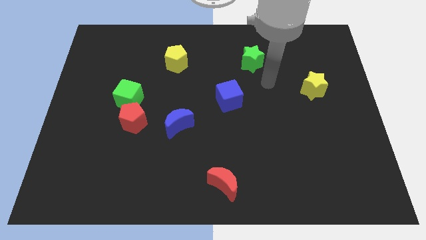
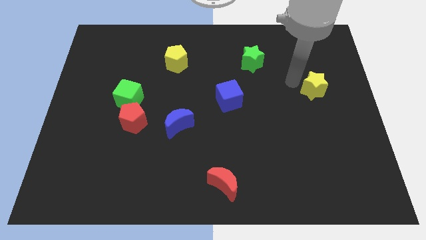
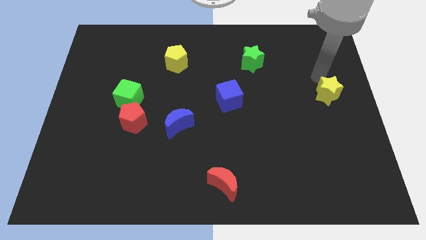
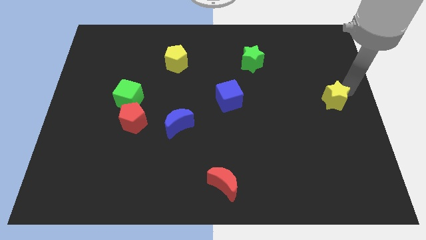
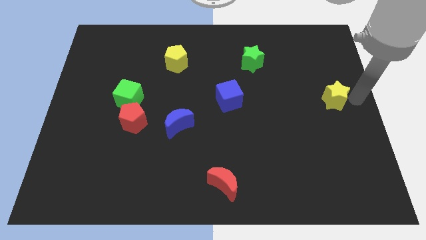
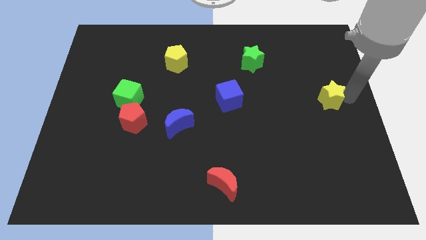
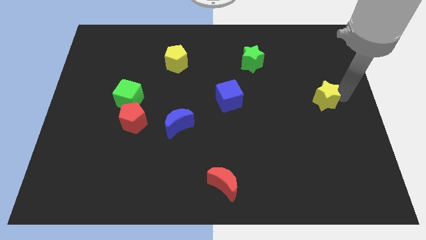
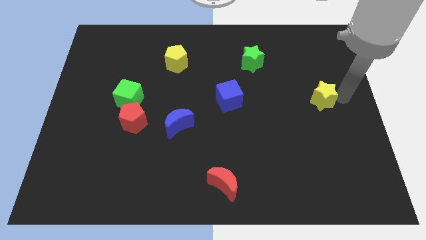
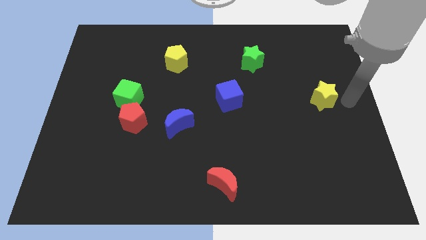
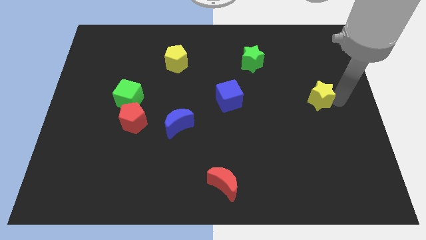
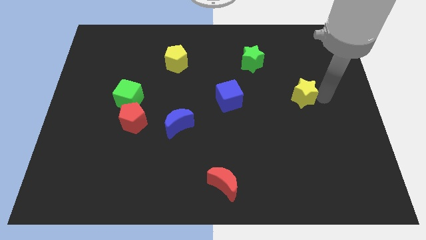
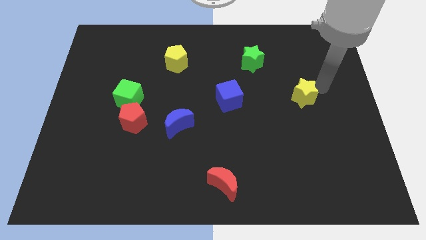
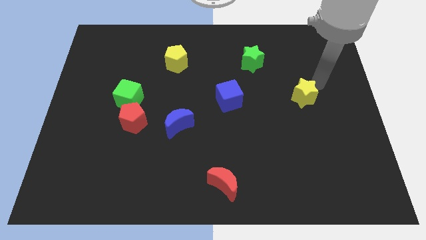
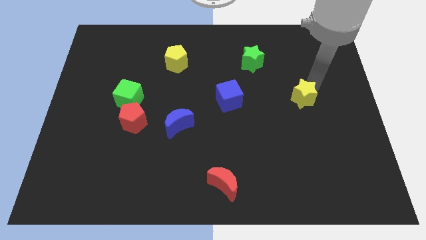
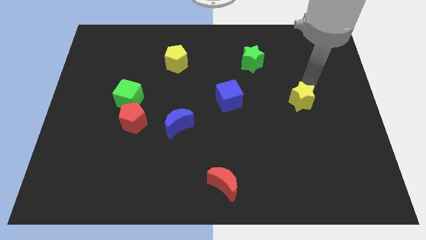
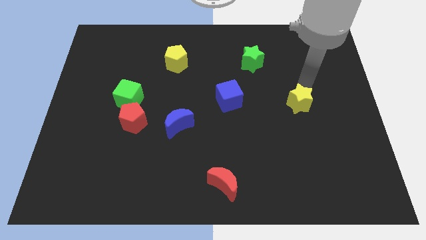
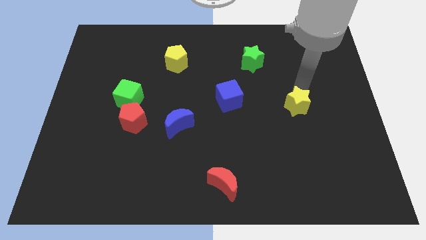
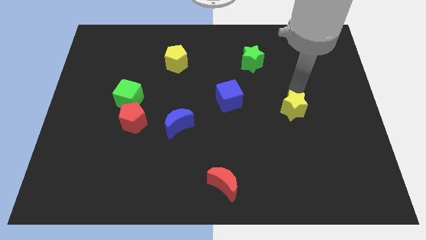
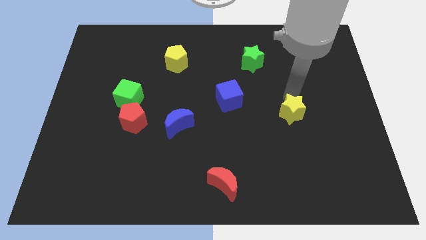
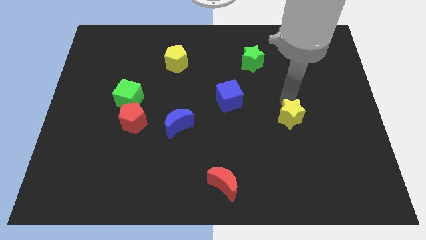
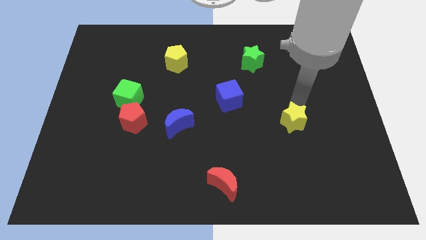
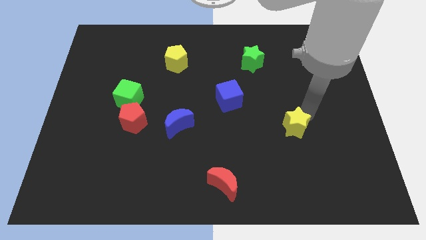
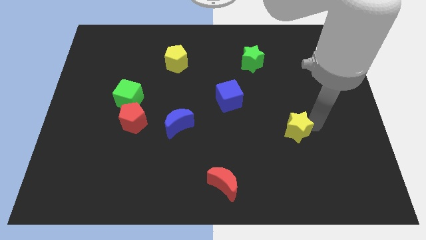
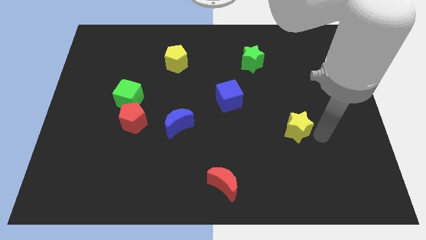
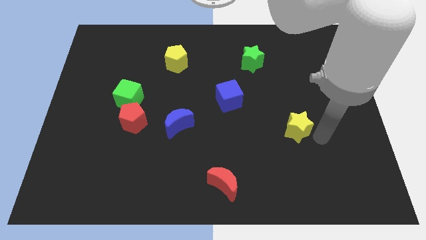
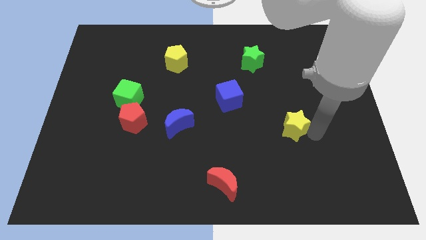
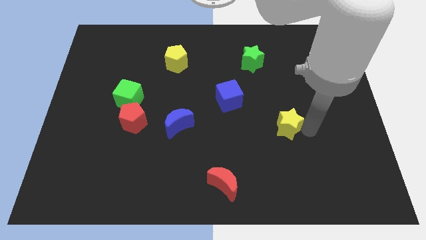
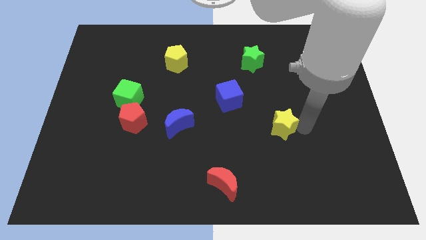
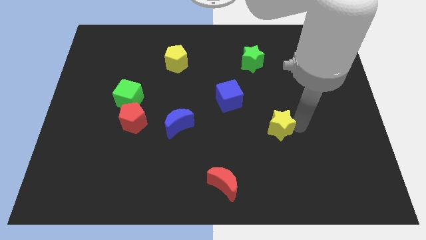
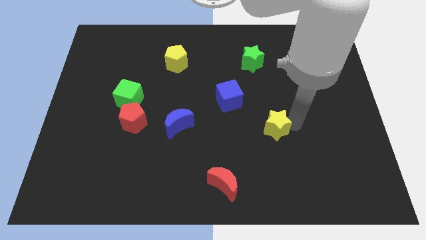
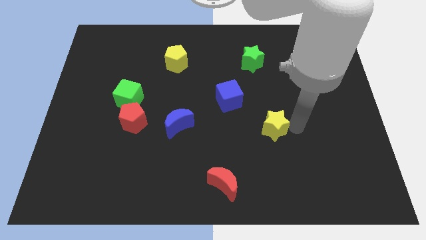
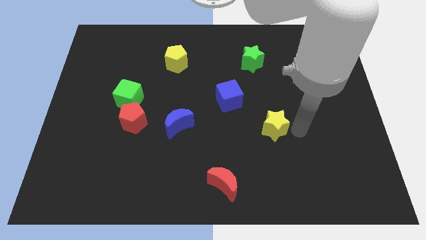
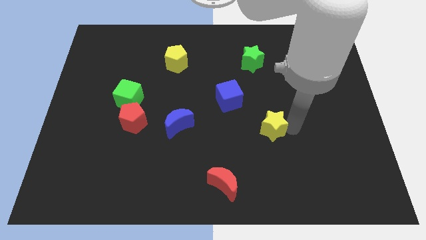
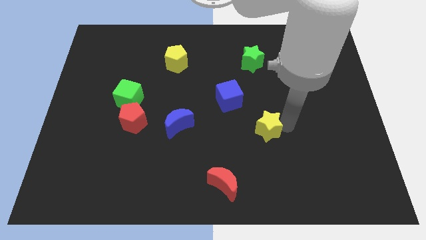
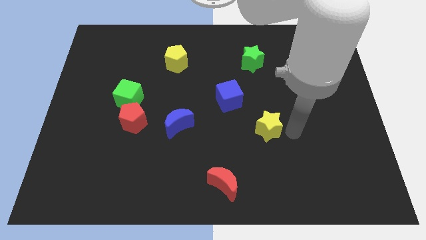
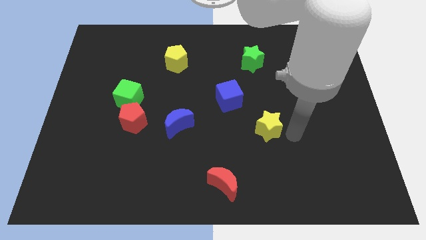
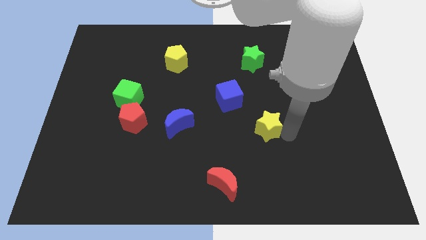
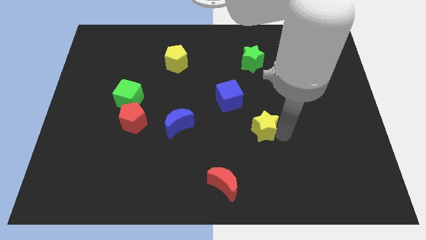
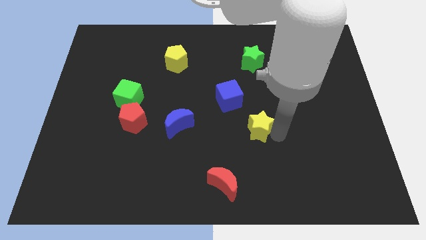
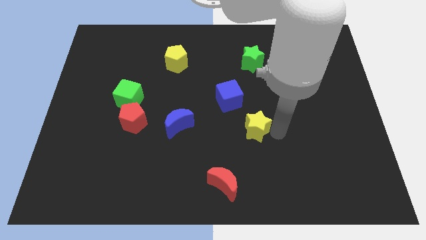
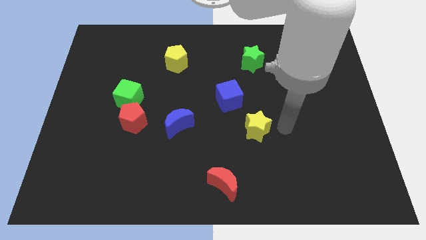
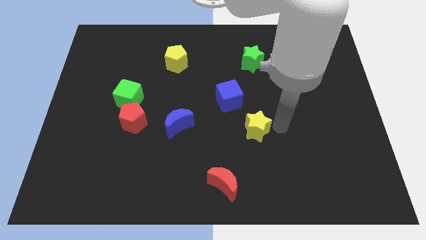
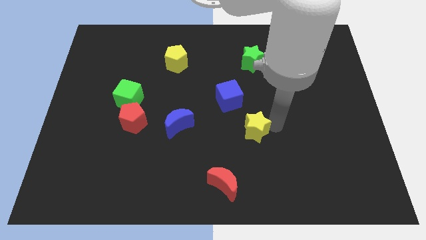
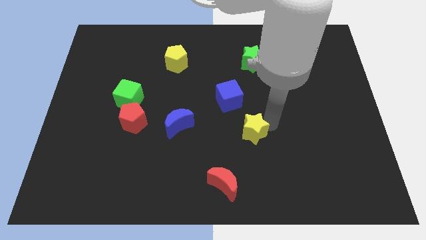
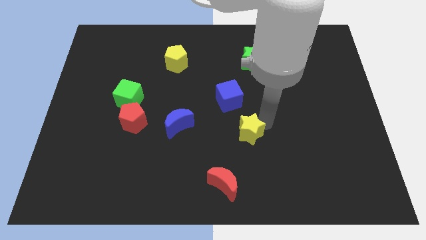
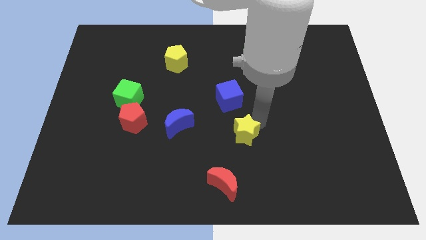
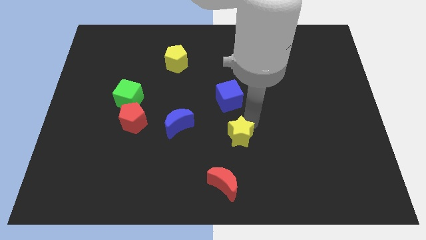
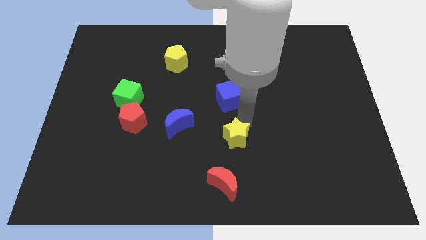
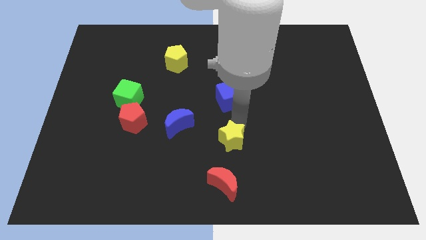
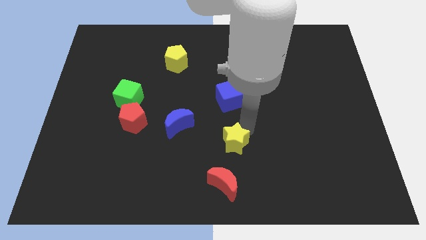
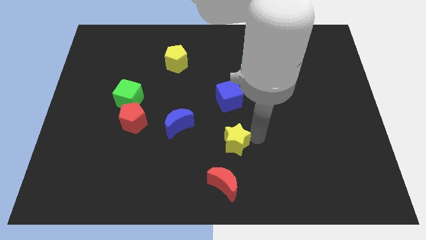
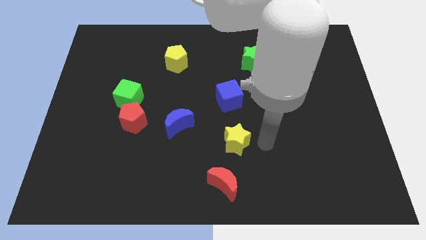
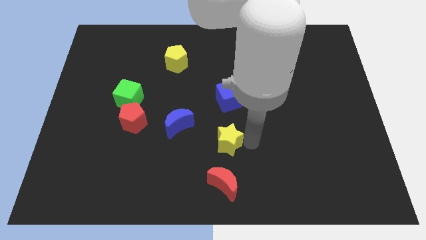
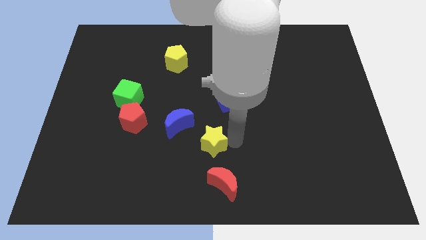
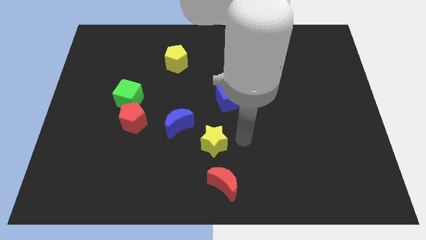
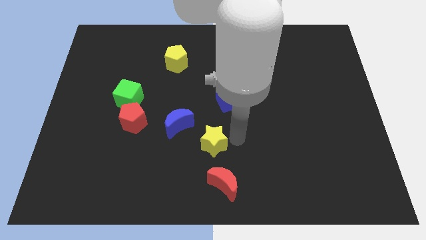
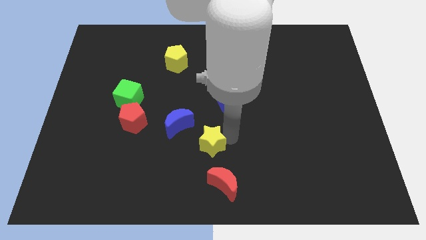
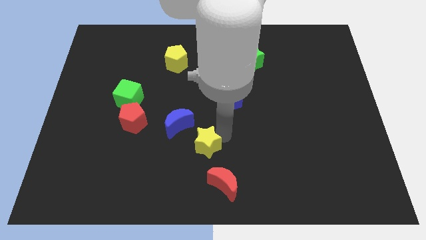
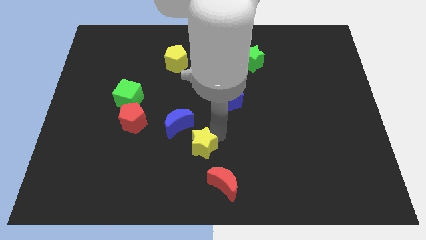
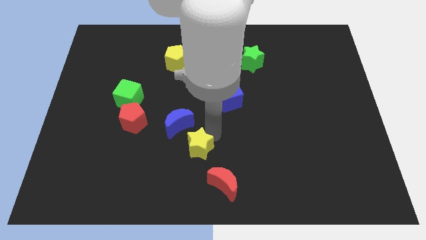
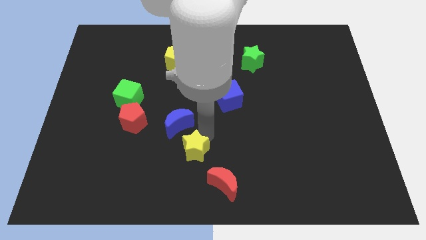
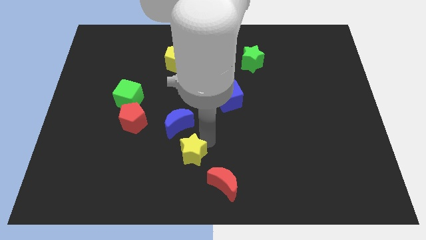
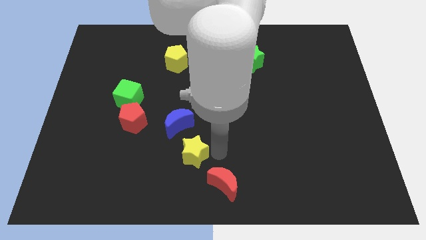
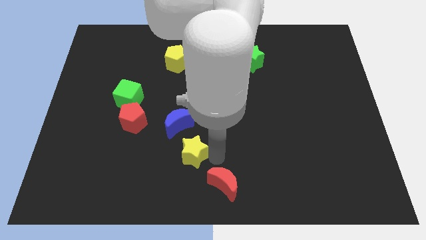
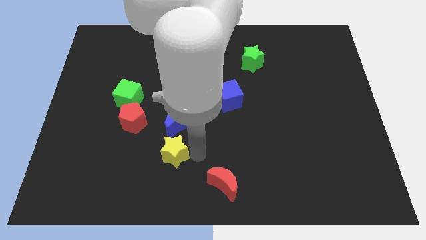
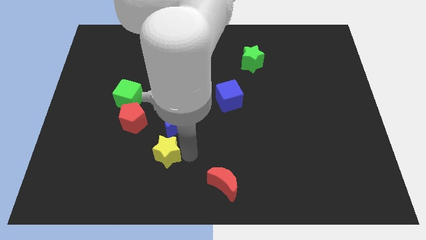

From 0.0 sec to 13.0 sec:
push the yellow star to the bottom left side of the blue moon
